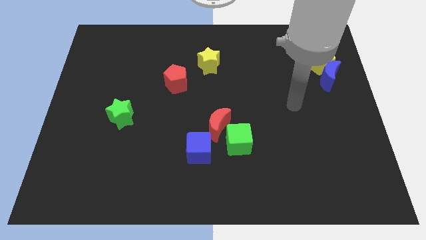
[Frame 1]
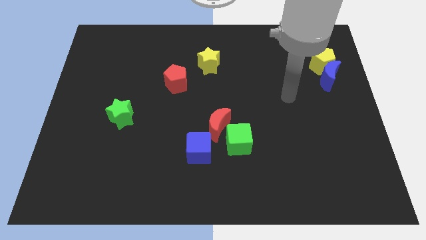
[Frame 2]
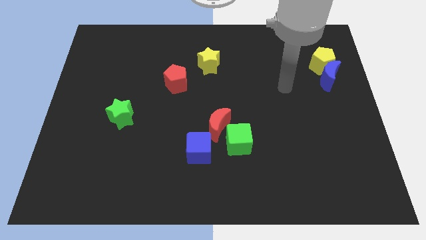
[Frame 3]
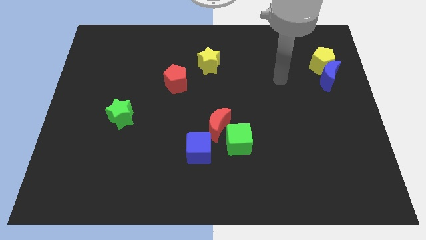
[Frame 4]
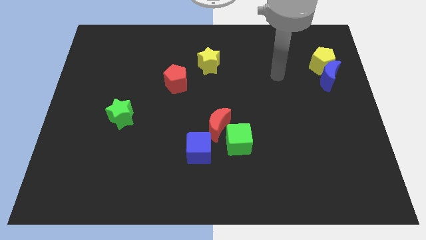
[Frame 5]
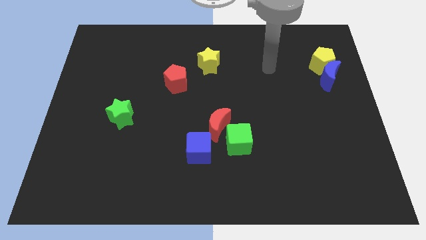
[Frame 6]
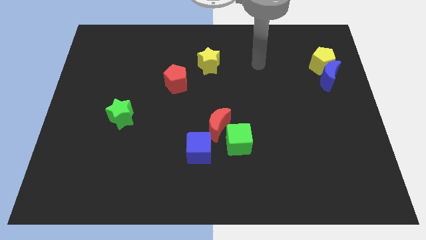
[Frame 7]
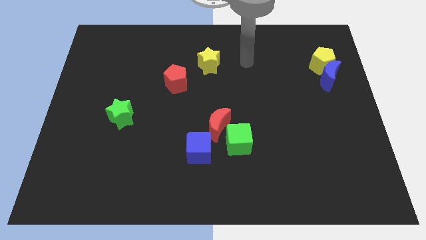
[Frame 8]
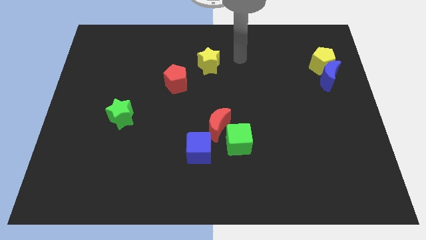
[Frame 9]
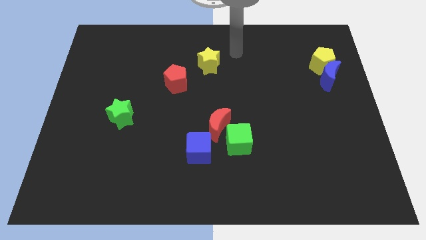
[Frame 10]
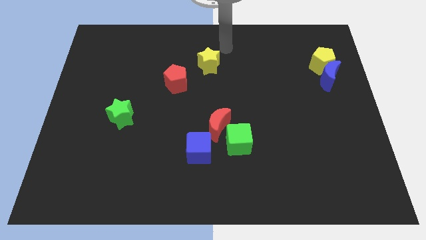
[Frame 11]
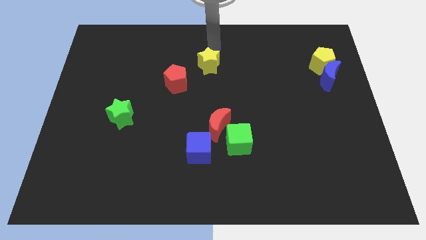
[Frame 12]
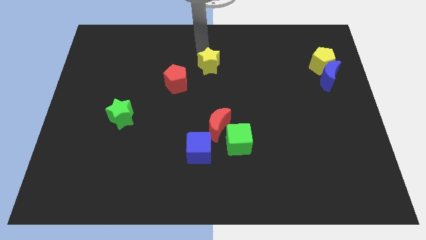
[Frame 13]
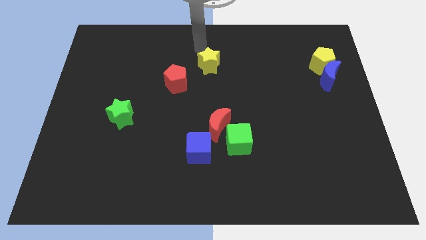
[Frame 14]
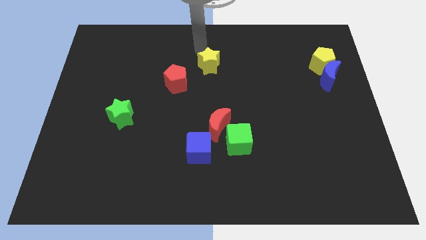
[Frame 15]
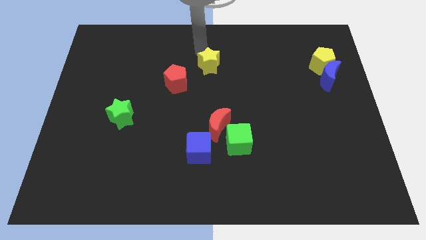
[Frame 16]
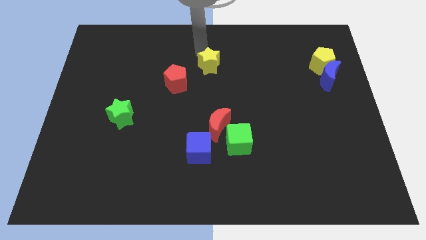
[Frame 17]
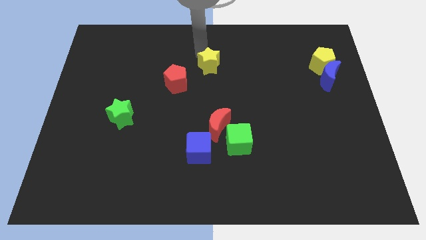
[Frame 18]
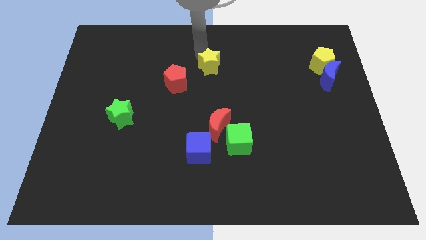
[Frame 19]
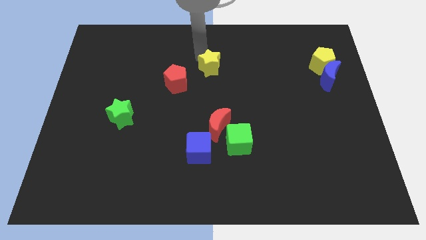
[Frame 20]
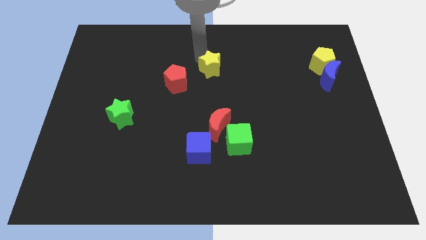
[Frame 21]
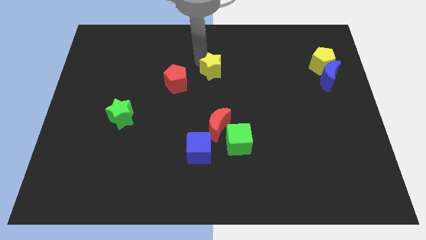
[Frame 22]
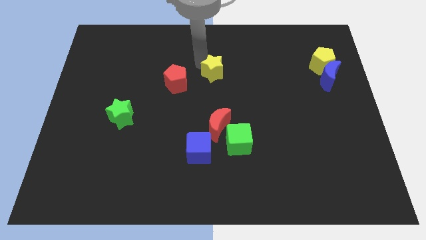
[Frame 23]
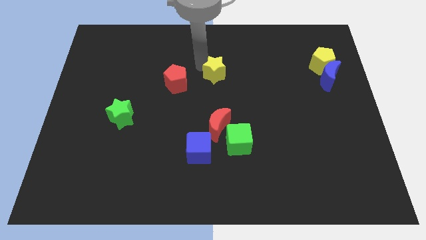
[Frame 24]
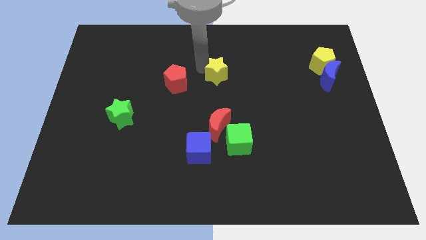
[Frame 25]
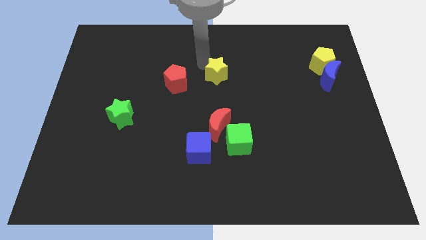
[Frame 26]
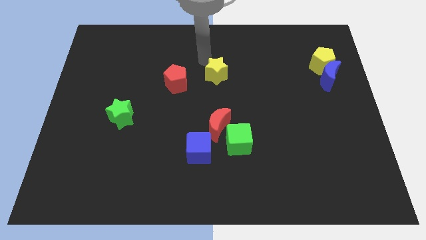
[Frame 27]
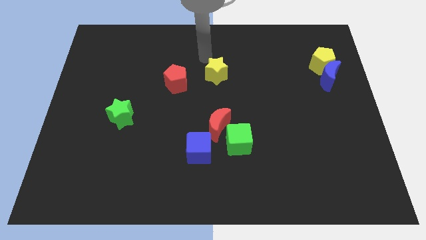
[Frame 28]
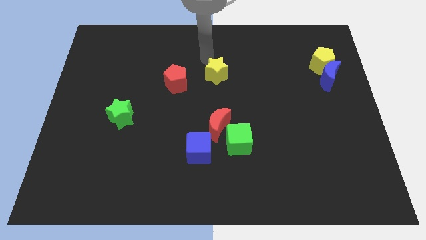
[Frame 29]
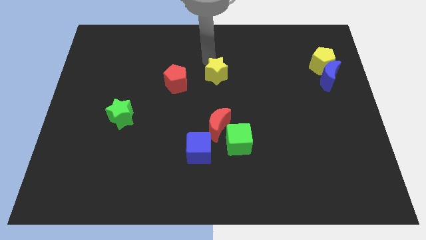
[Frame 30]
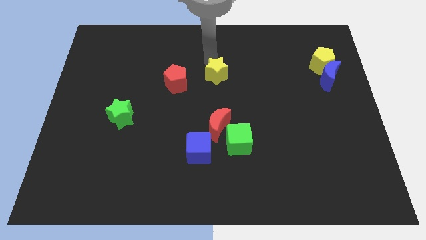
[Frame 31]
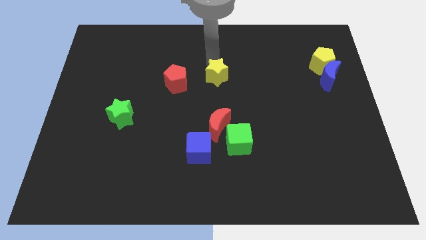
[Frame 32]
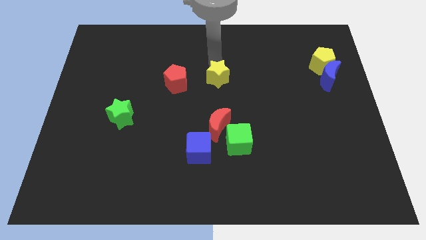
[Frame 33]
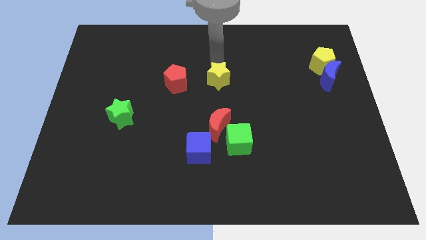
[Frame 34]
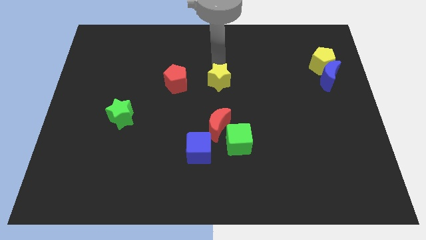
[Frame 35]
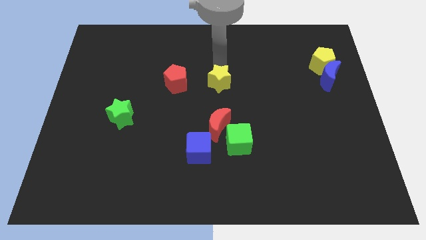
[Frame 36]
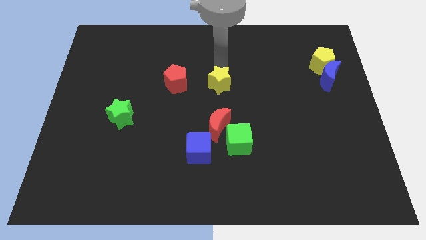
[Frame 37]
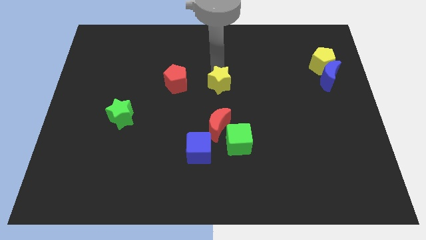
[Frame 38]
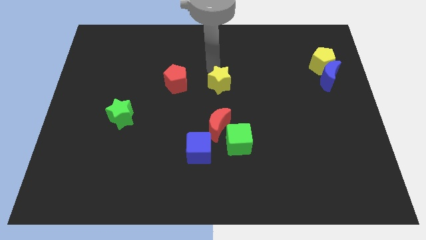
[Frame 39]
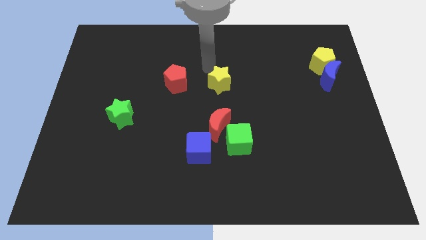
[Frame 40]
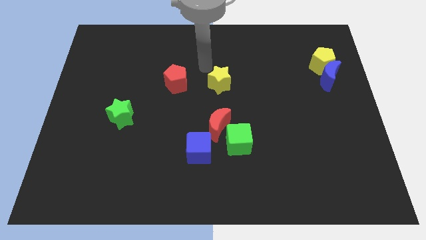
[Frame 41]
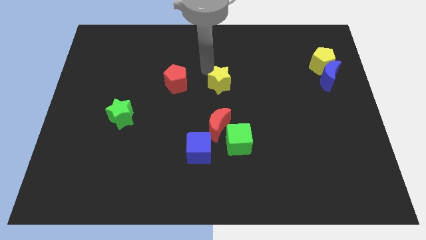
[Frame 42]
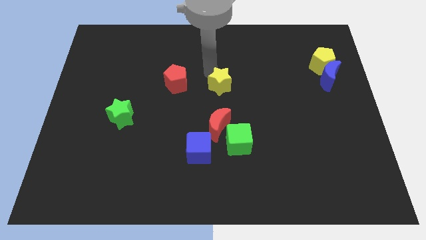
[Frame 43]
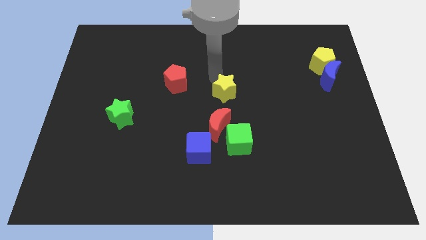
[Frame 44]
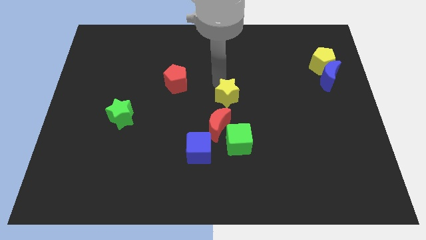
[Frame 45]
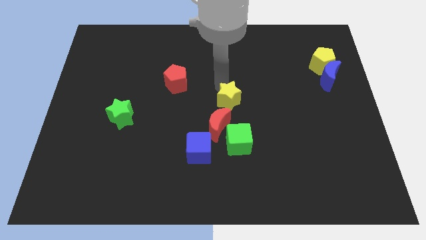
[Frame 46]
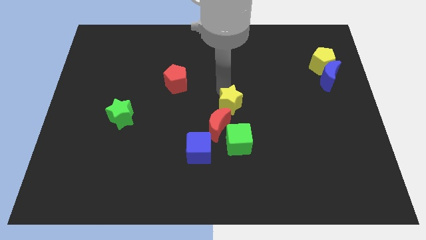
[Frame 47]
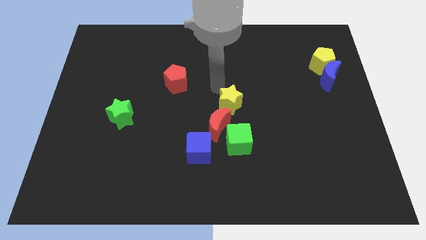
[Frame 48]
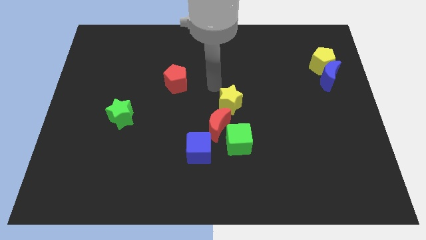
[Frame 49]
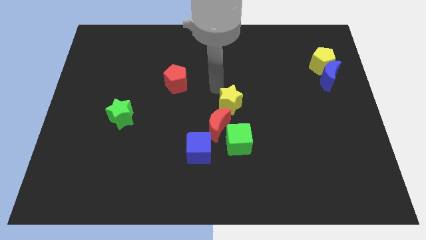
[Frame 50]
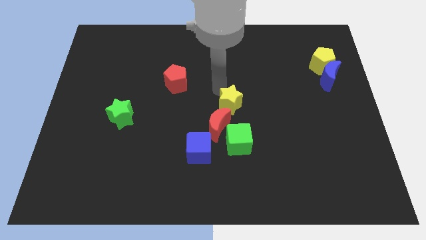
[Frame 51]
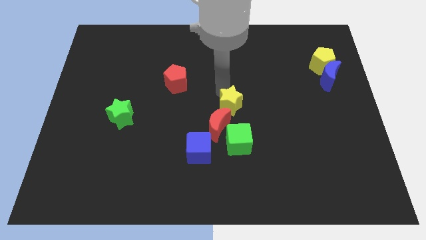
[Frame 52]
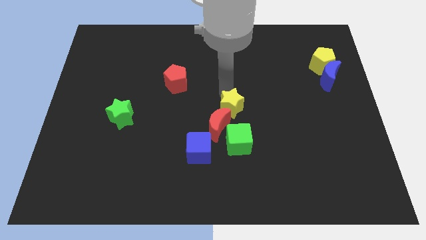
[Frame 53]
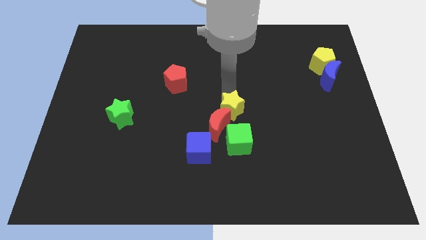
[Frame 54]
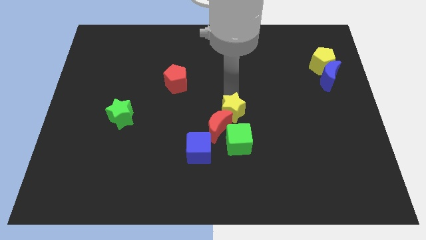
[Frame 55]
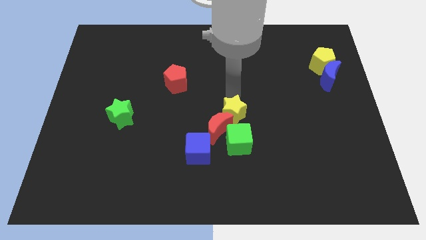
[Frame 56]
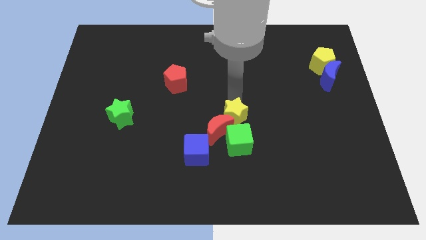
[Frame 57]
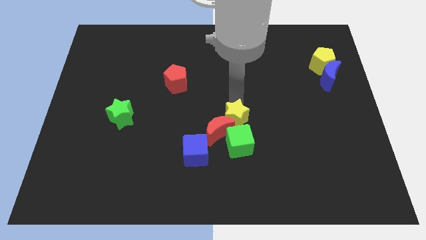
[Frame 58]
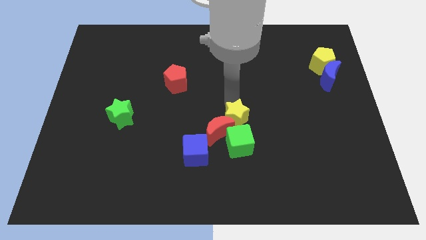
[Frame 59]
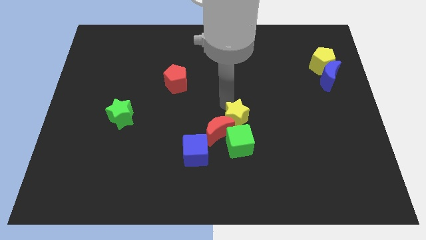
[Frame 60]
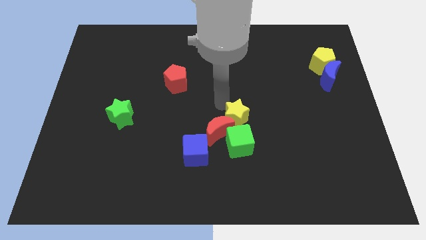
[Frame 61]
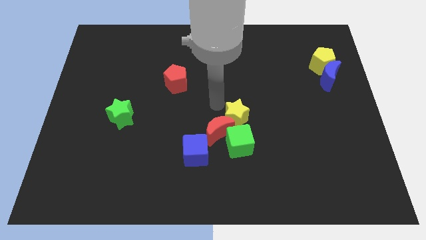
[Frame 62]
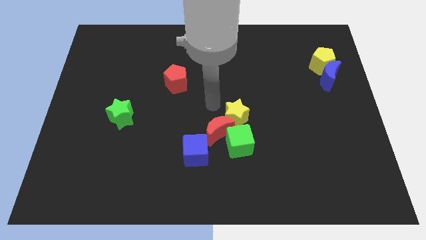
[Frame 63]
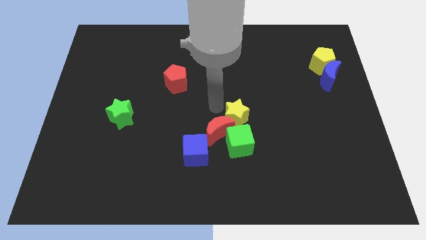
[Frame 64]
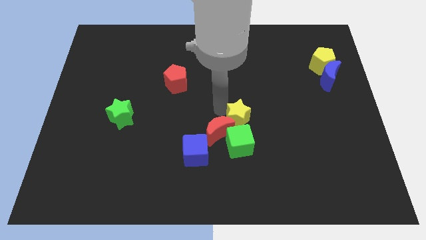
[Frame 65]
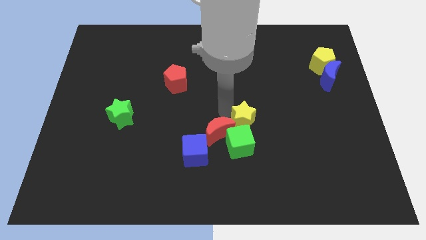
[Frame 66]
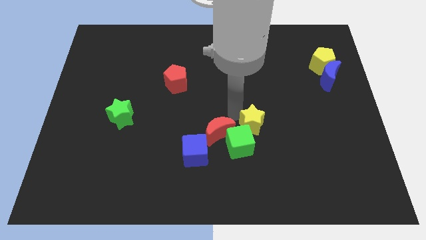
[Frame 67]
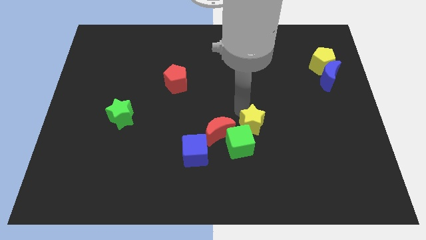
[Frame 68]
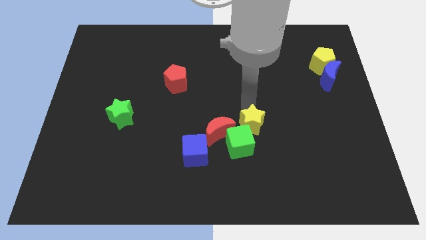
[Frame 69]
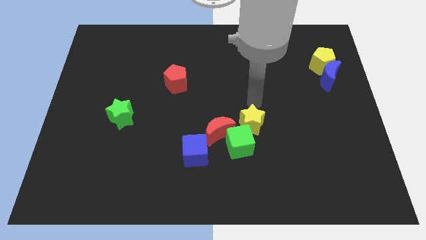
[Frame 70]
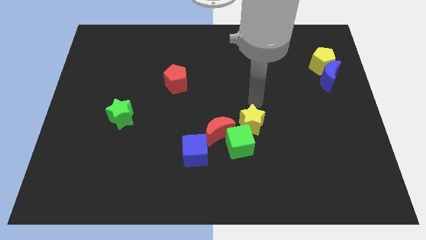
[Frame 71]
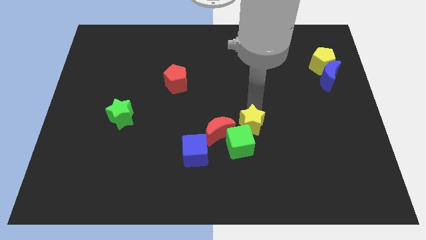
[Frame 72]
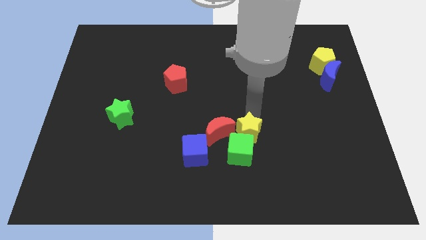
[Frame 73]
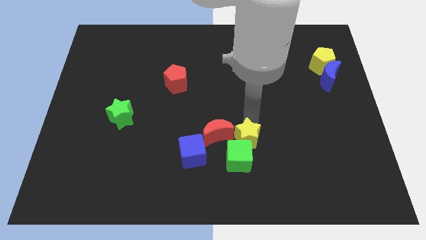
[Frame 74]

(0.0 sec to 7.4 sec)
push the yellow star just right of the blue cube

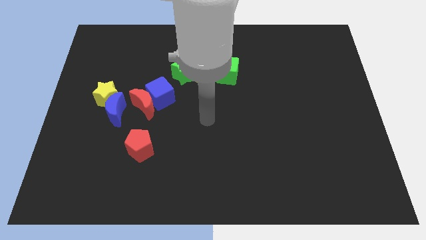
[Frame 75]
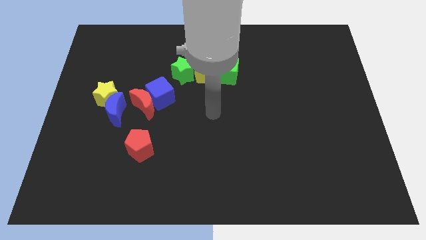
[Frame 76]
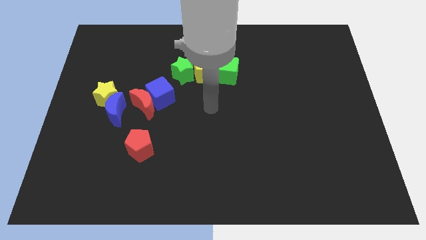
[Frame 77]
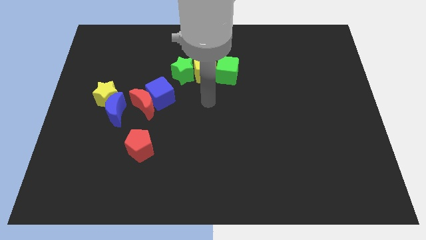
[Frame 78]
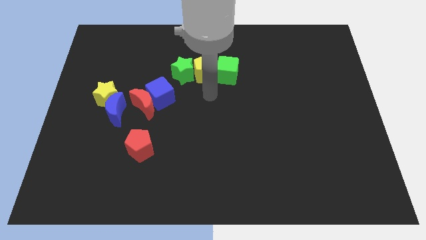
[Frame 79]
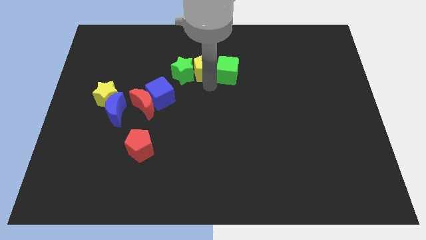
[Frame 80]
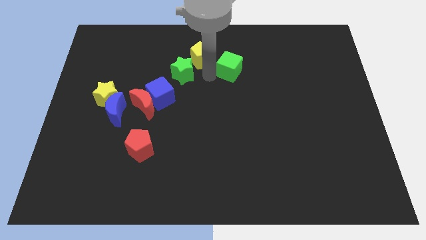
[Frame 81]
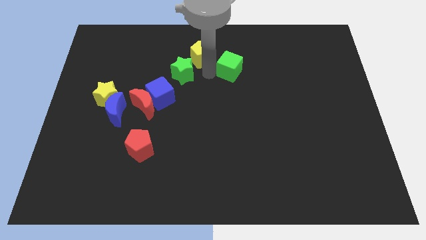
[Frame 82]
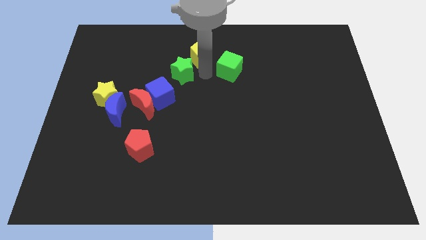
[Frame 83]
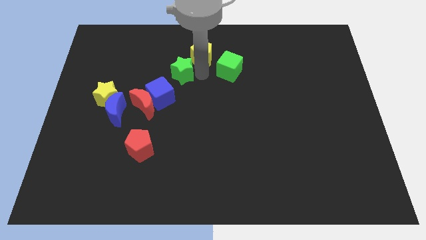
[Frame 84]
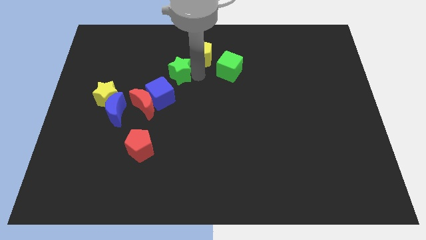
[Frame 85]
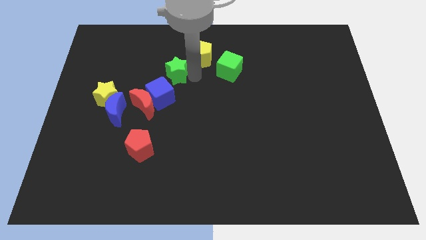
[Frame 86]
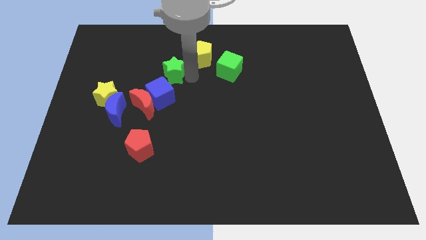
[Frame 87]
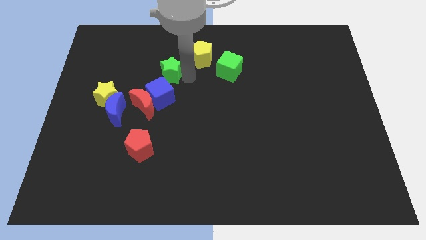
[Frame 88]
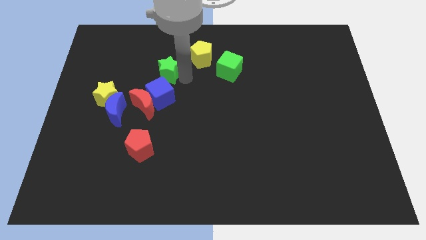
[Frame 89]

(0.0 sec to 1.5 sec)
put the green star to the top of the red moon
